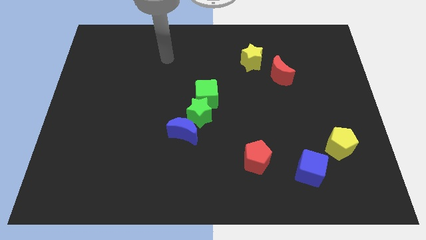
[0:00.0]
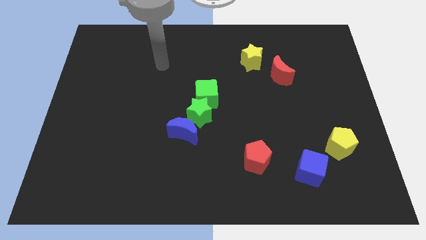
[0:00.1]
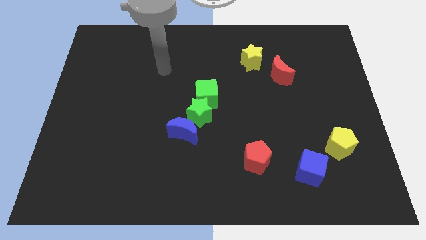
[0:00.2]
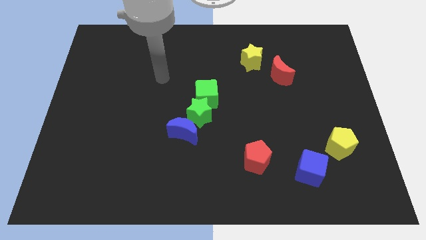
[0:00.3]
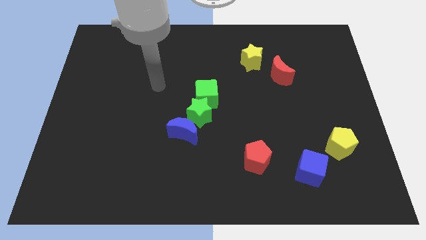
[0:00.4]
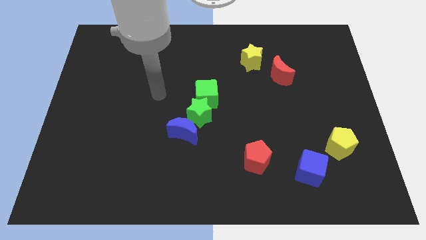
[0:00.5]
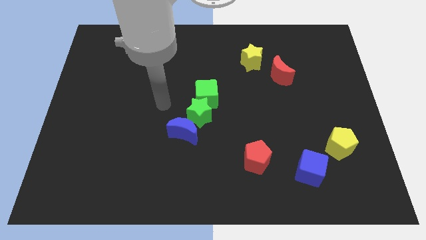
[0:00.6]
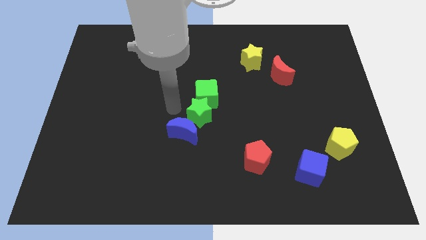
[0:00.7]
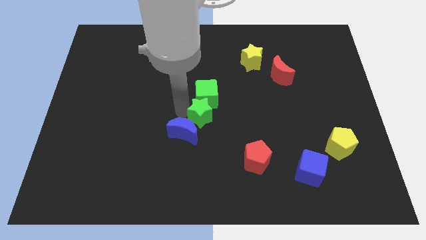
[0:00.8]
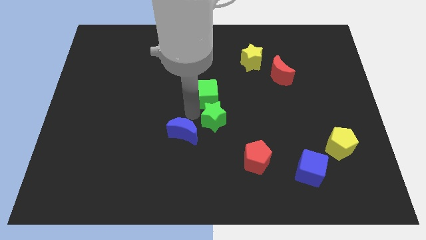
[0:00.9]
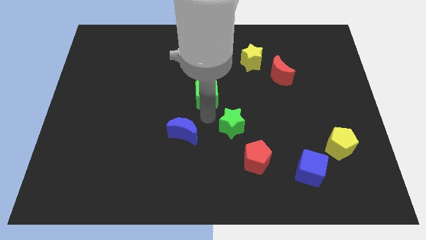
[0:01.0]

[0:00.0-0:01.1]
pull the green cube apart from the green star

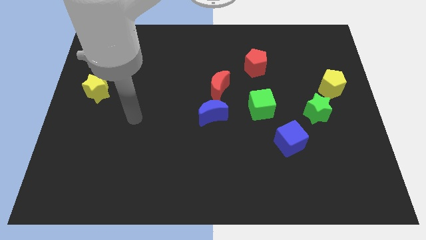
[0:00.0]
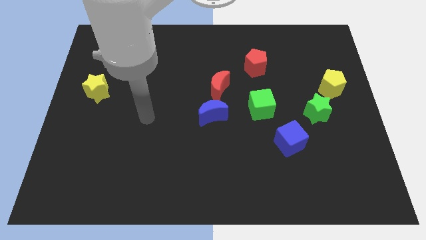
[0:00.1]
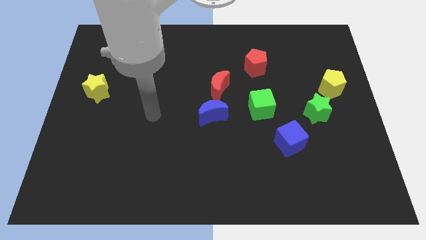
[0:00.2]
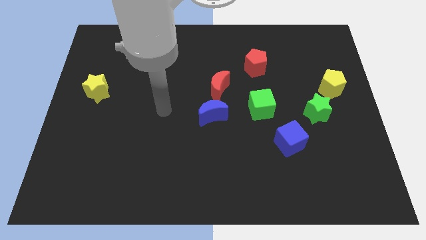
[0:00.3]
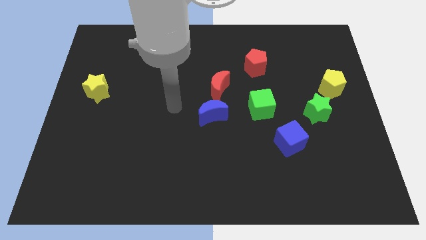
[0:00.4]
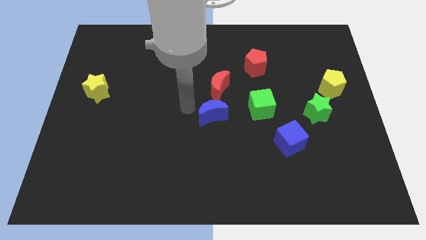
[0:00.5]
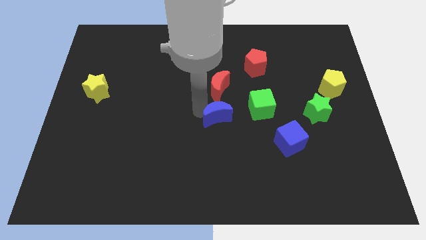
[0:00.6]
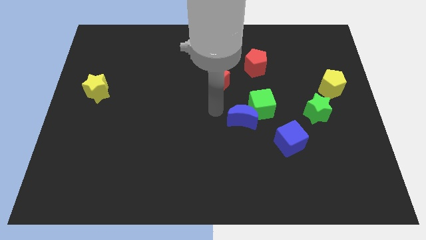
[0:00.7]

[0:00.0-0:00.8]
move the red moon away from the blue moon

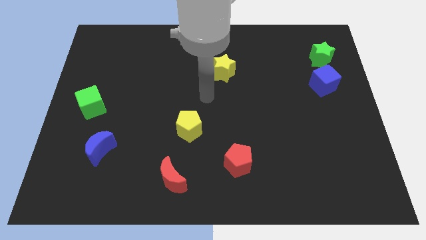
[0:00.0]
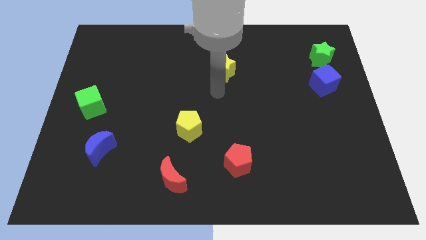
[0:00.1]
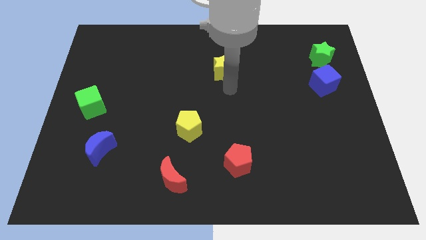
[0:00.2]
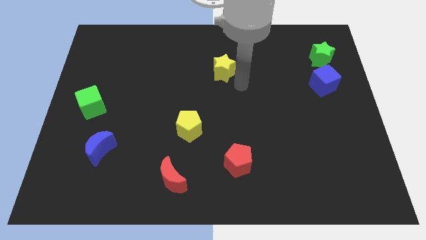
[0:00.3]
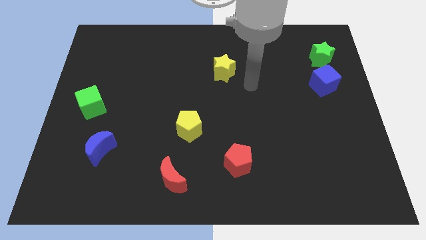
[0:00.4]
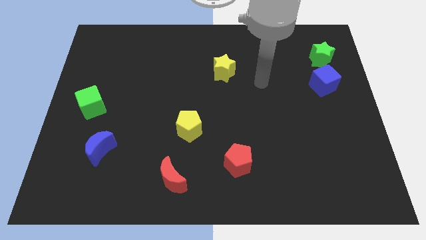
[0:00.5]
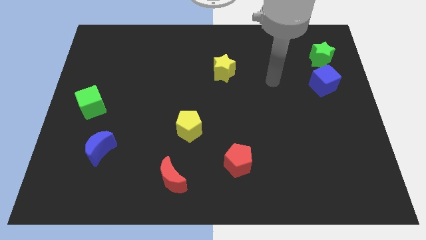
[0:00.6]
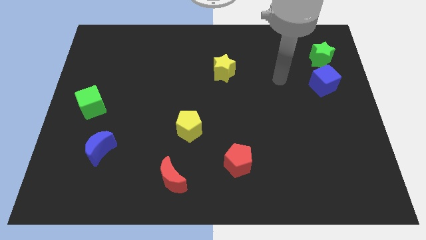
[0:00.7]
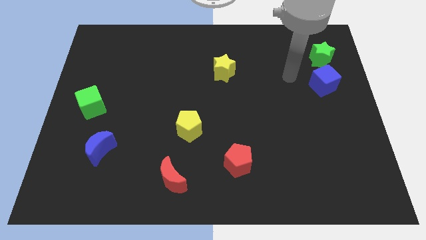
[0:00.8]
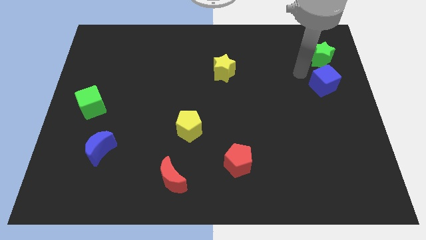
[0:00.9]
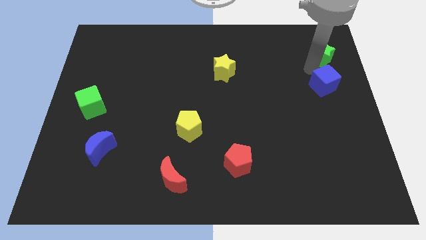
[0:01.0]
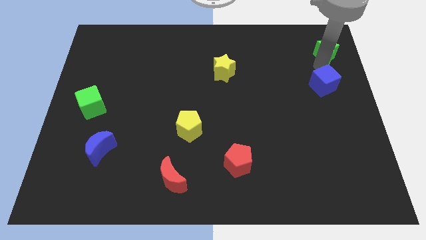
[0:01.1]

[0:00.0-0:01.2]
separate the blue cube from the green star

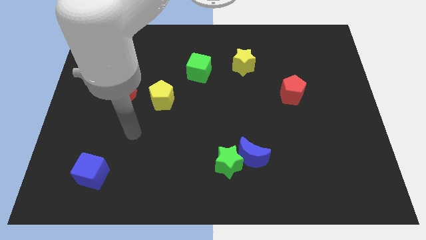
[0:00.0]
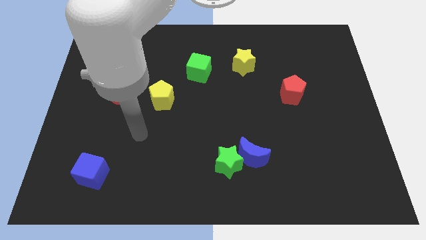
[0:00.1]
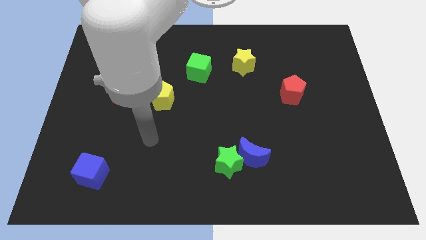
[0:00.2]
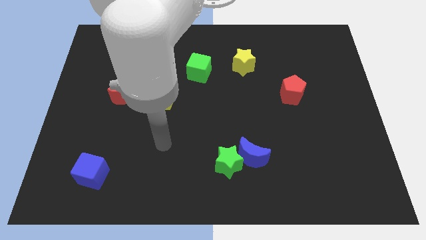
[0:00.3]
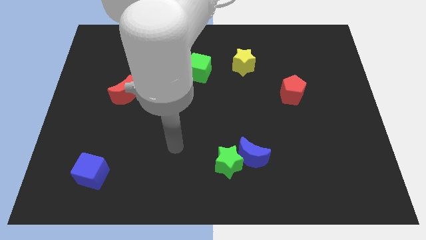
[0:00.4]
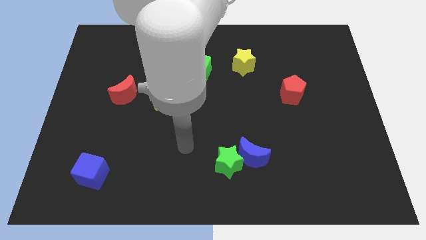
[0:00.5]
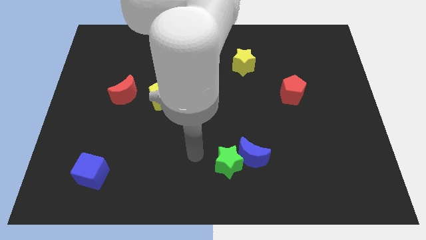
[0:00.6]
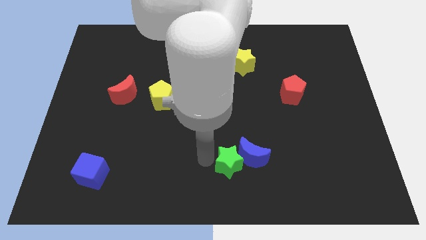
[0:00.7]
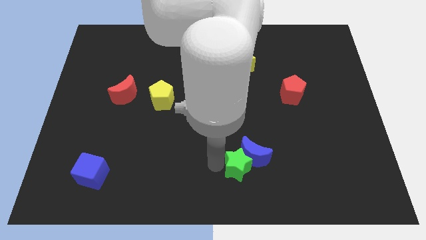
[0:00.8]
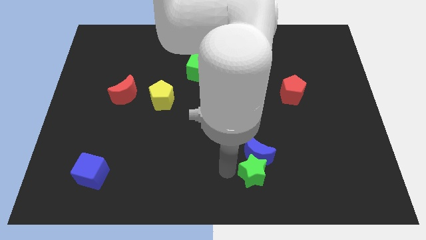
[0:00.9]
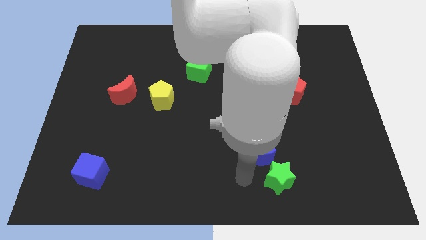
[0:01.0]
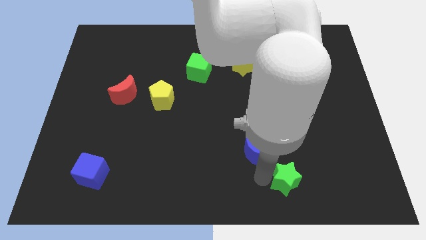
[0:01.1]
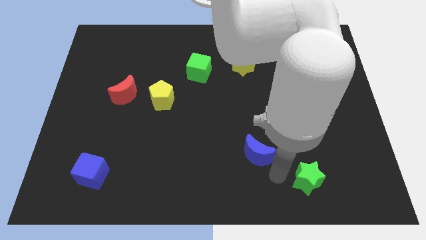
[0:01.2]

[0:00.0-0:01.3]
separate the blue moon from the green star

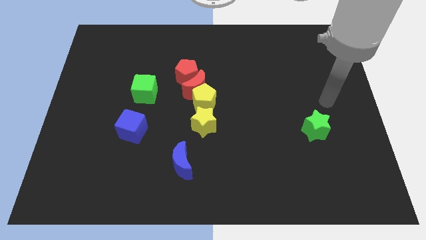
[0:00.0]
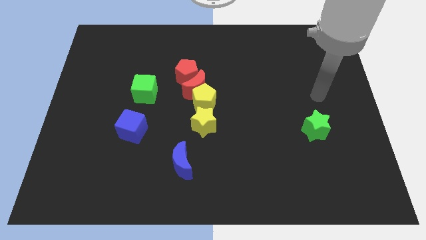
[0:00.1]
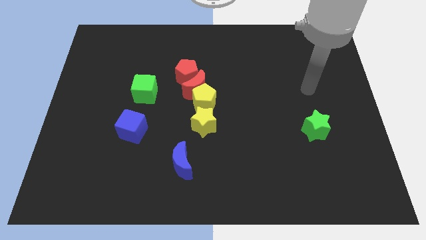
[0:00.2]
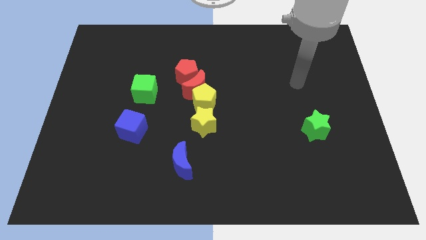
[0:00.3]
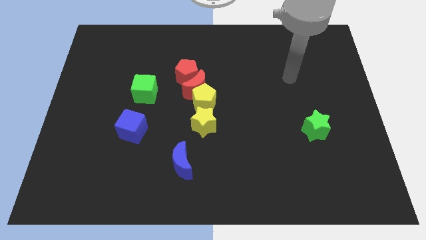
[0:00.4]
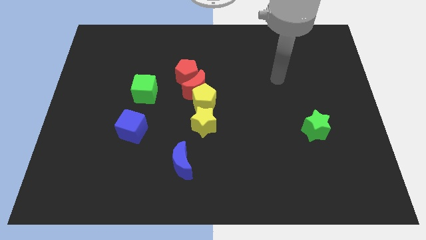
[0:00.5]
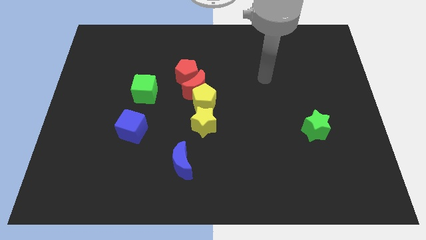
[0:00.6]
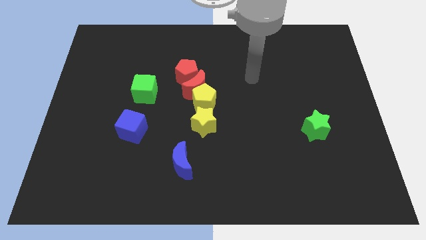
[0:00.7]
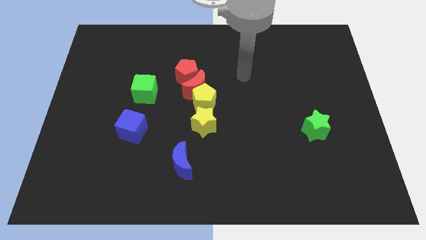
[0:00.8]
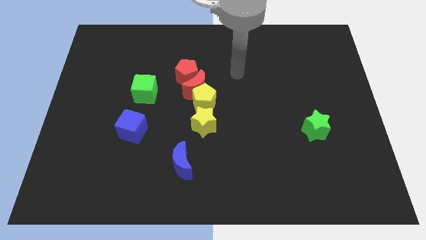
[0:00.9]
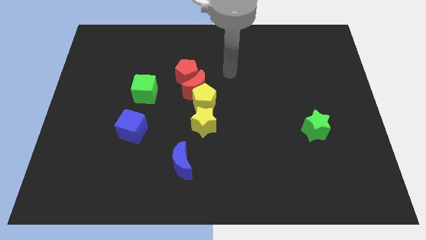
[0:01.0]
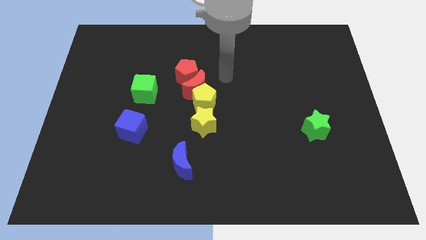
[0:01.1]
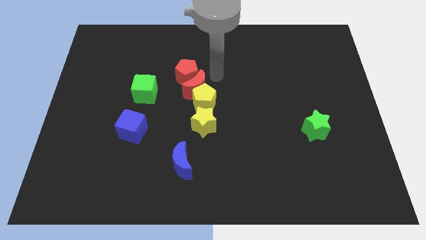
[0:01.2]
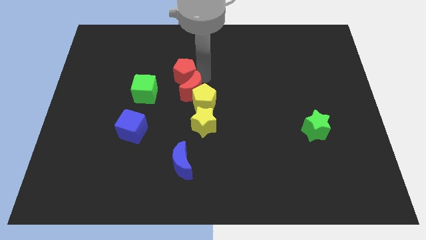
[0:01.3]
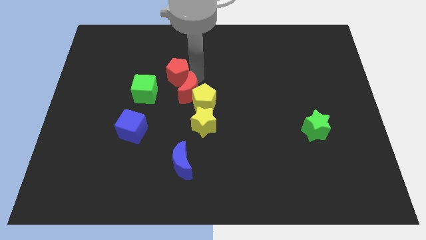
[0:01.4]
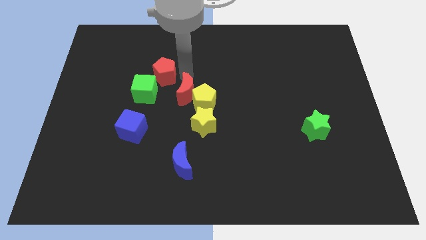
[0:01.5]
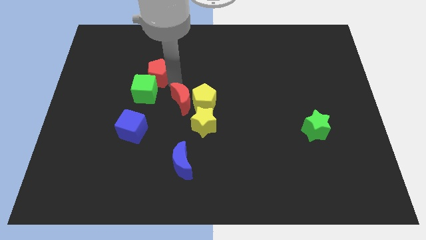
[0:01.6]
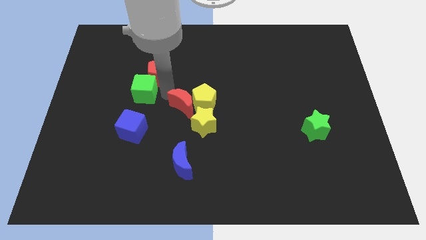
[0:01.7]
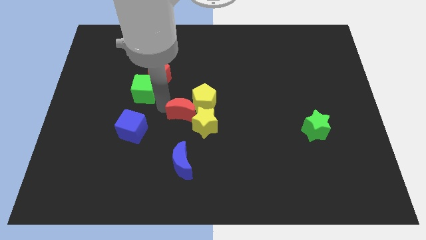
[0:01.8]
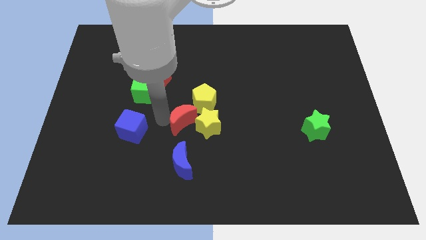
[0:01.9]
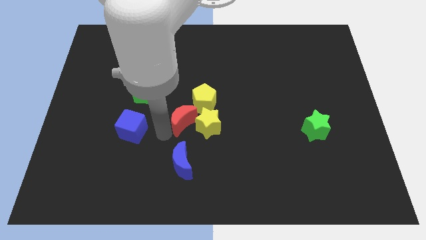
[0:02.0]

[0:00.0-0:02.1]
separate the red moon from the yellow pentagon and red pentagon

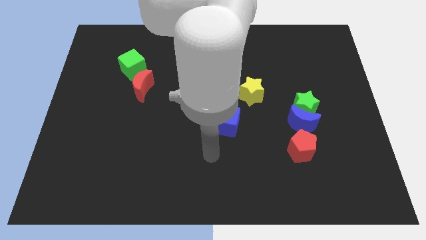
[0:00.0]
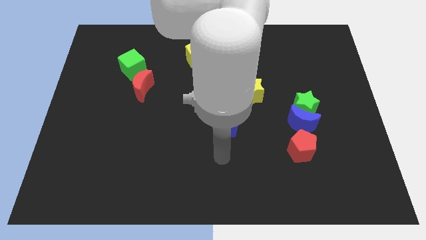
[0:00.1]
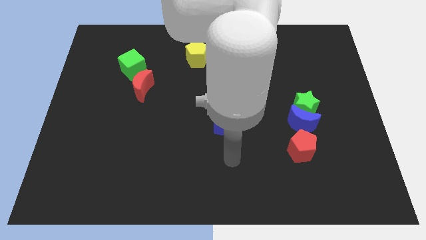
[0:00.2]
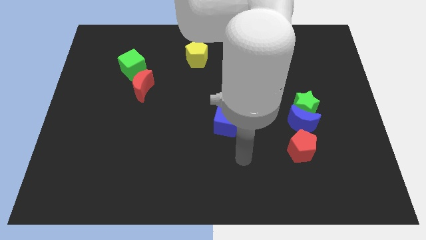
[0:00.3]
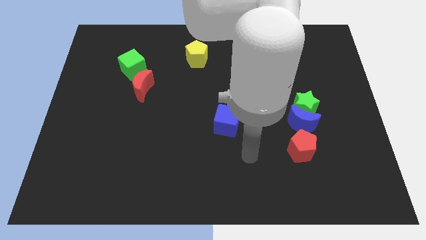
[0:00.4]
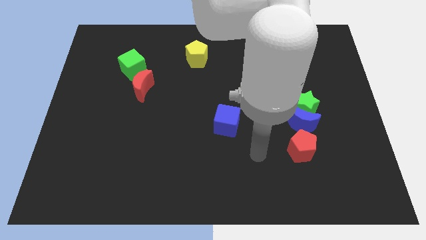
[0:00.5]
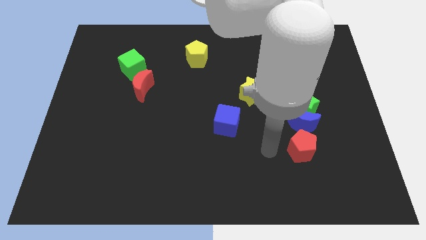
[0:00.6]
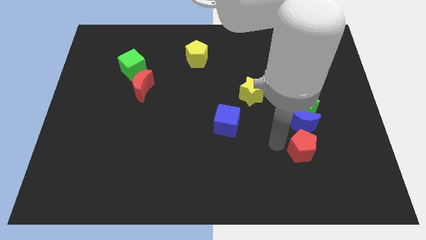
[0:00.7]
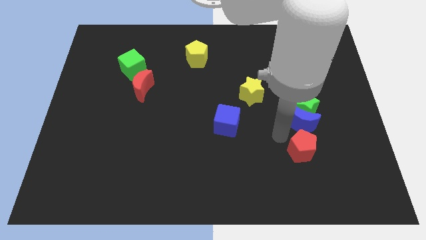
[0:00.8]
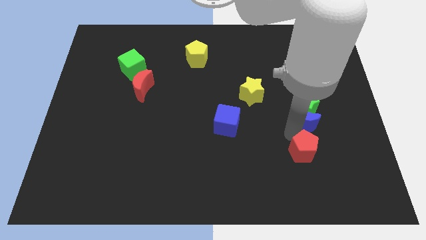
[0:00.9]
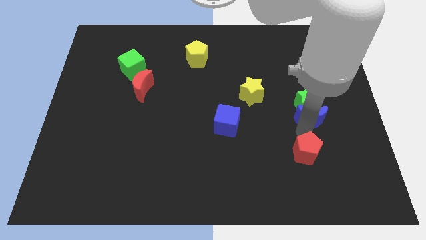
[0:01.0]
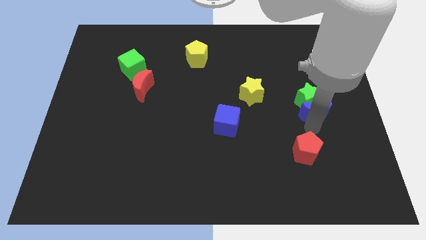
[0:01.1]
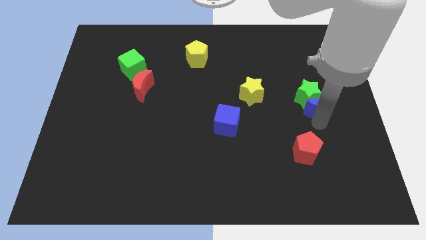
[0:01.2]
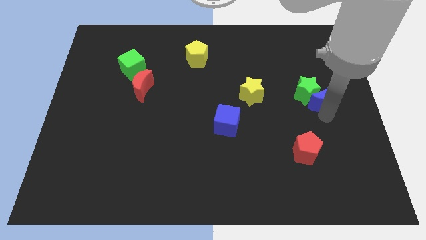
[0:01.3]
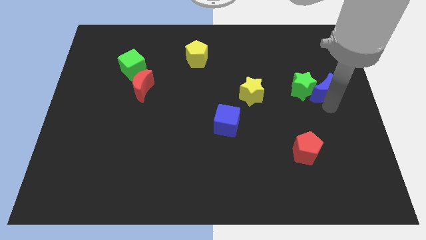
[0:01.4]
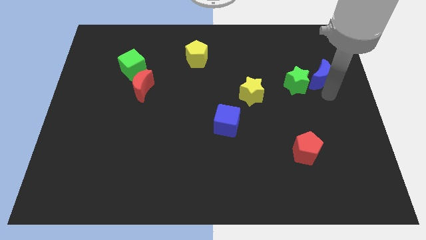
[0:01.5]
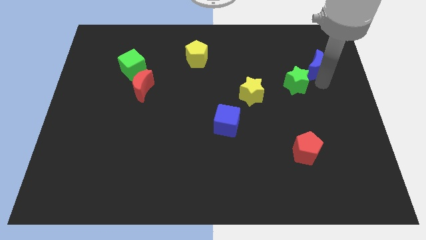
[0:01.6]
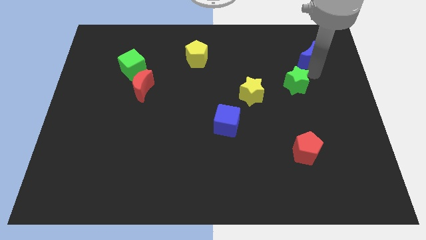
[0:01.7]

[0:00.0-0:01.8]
separate the green star from the blue moon

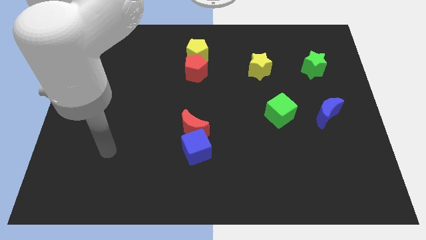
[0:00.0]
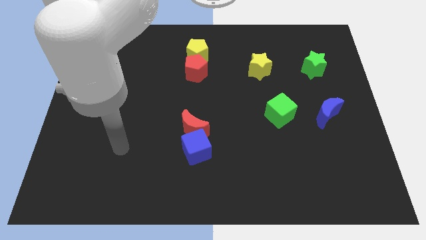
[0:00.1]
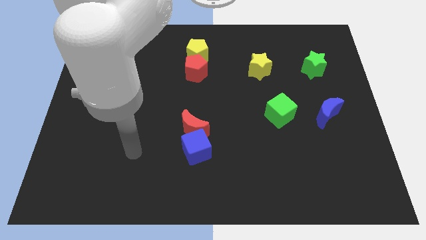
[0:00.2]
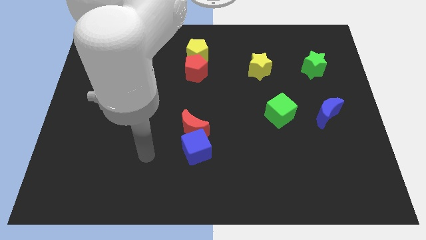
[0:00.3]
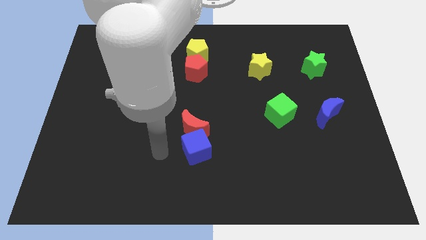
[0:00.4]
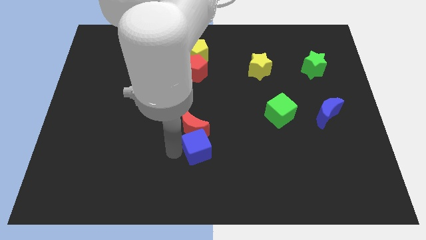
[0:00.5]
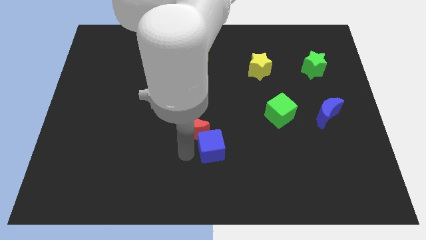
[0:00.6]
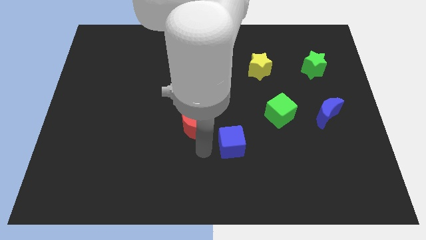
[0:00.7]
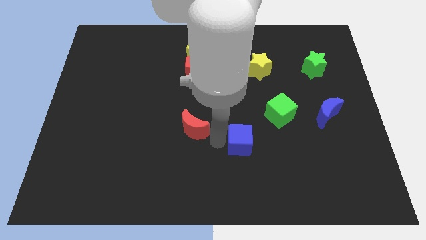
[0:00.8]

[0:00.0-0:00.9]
separate the red moon from the blue cube

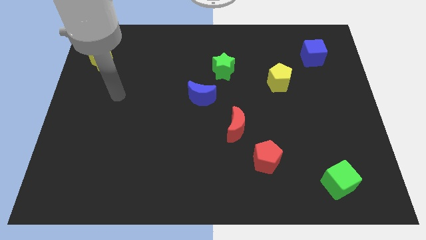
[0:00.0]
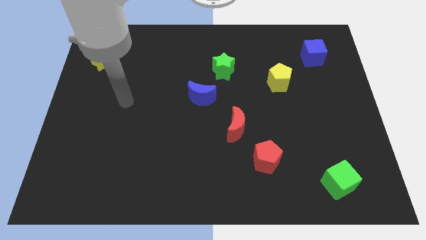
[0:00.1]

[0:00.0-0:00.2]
pull the red moon apart from the red pentagon
